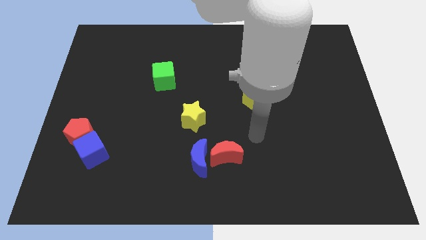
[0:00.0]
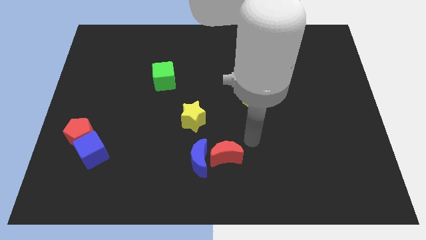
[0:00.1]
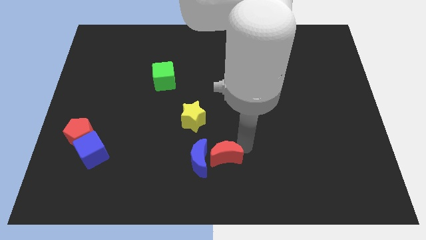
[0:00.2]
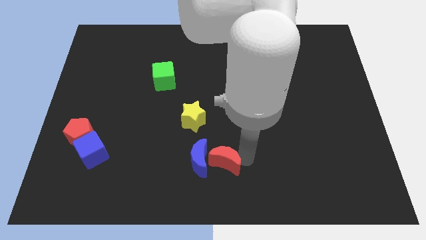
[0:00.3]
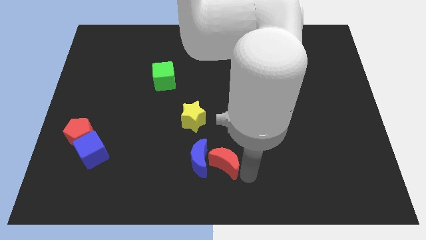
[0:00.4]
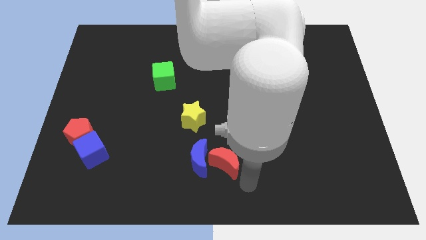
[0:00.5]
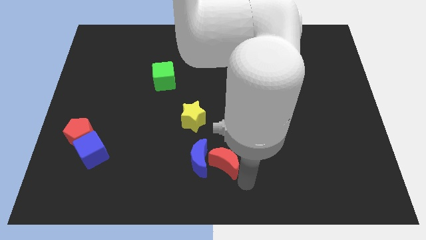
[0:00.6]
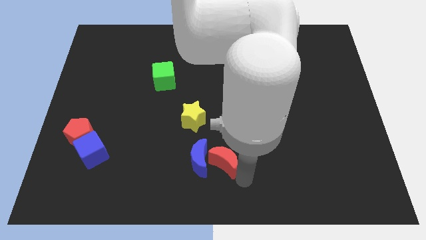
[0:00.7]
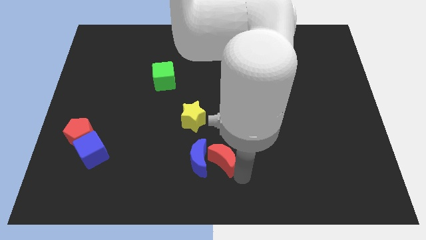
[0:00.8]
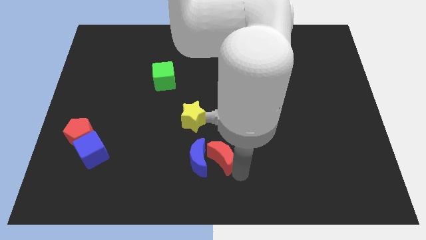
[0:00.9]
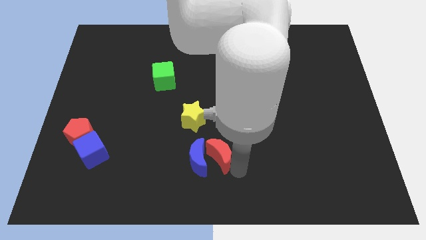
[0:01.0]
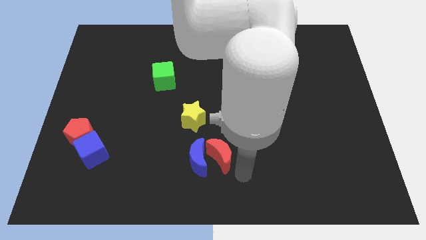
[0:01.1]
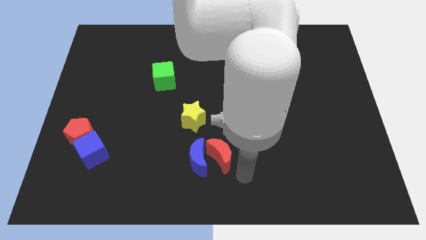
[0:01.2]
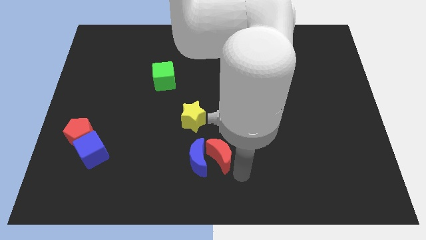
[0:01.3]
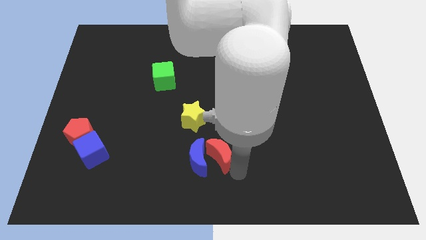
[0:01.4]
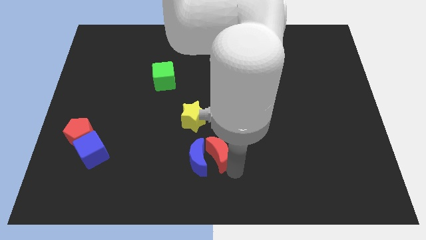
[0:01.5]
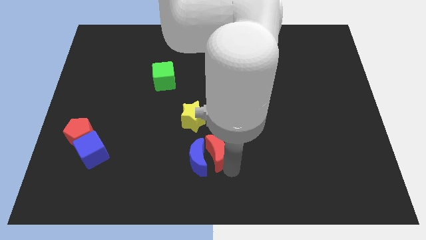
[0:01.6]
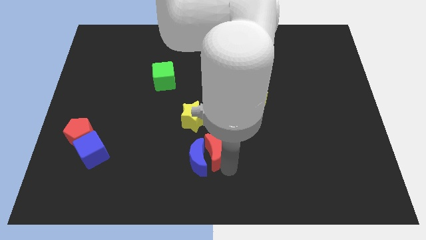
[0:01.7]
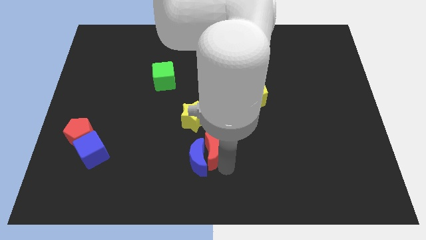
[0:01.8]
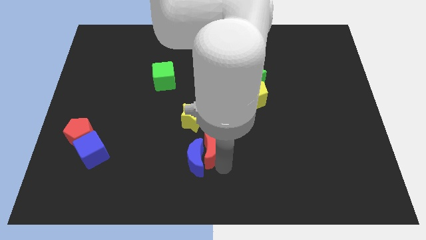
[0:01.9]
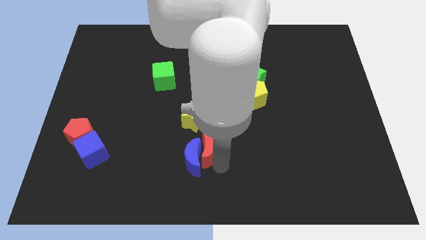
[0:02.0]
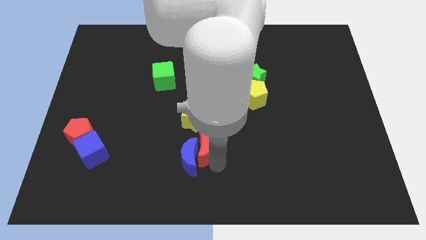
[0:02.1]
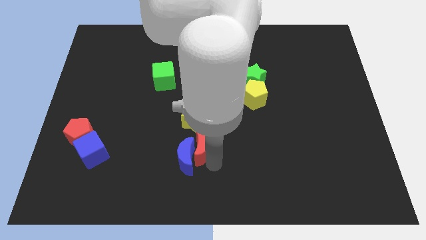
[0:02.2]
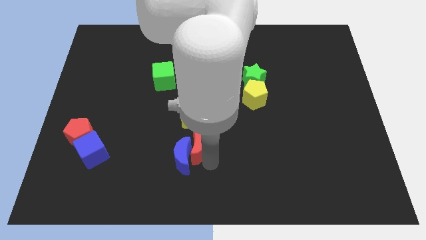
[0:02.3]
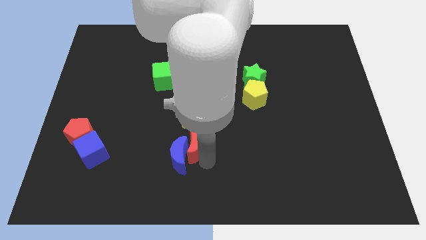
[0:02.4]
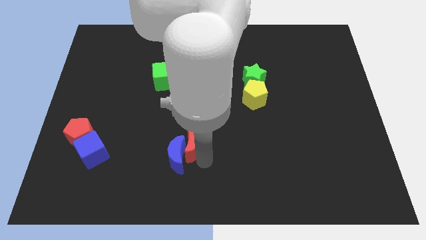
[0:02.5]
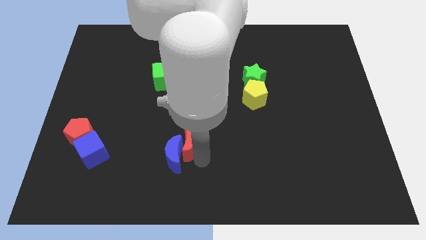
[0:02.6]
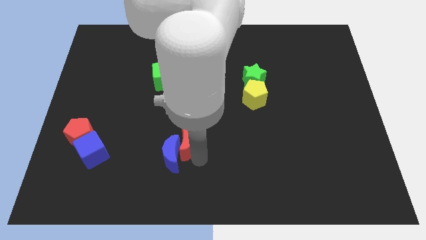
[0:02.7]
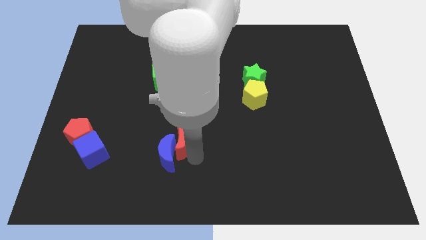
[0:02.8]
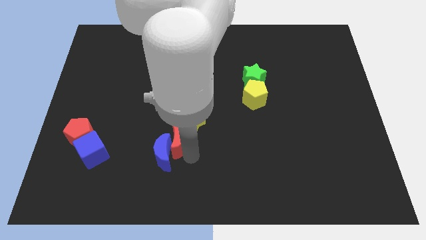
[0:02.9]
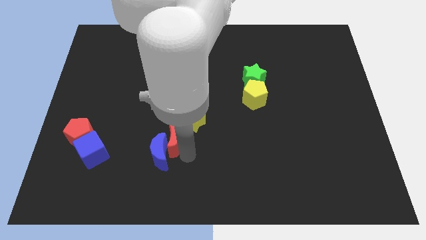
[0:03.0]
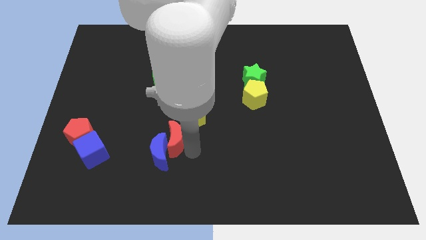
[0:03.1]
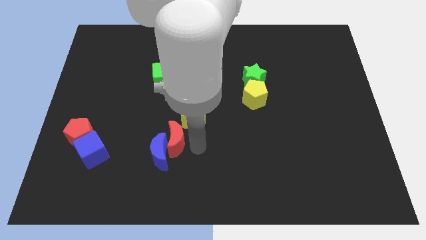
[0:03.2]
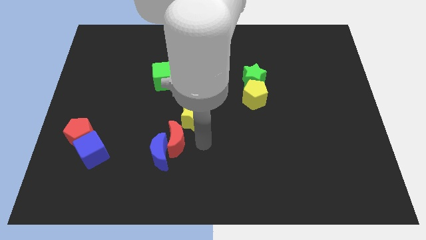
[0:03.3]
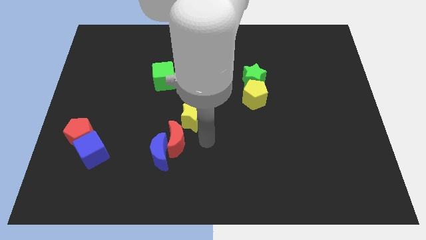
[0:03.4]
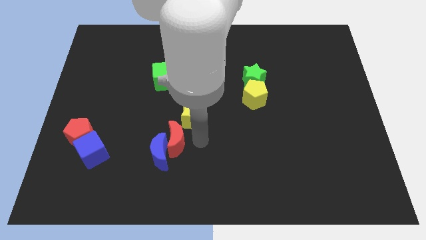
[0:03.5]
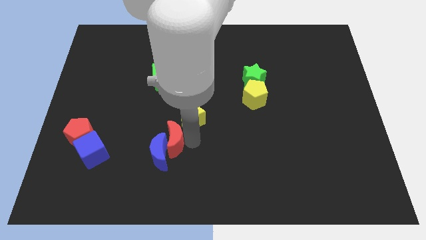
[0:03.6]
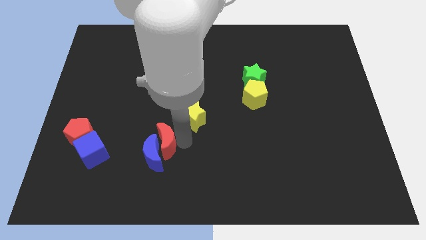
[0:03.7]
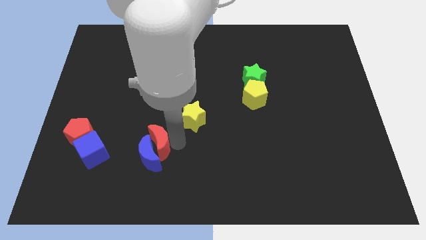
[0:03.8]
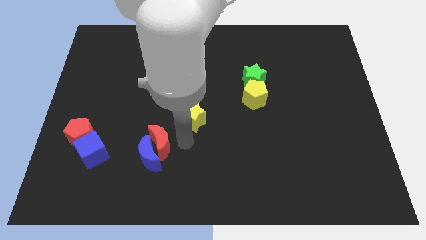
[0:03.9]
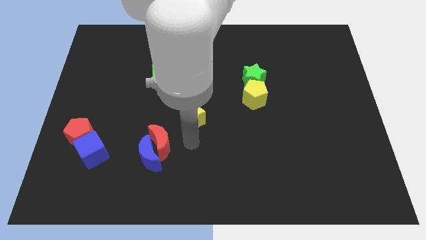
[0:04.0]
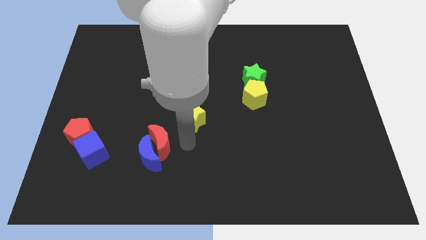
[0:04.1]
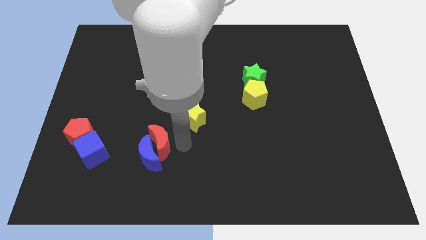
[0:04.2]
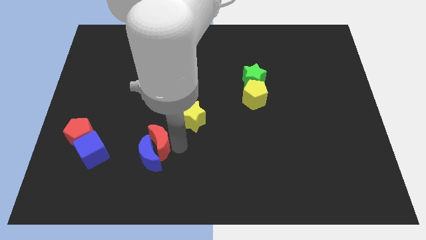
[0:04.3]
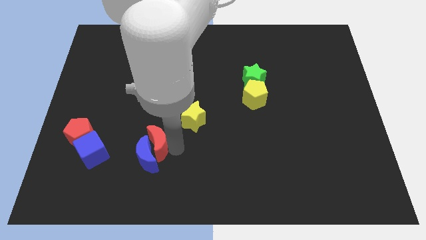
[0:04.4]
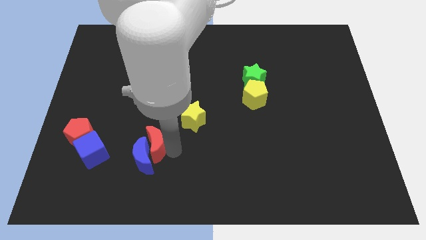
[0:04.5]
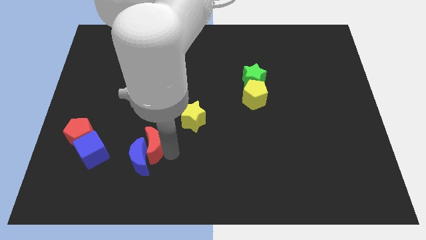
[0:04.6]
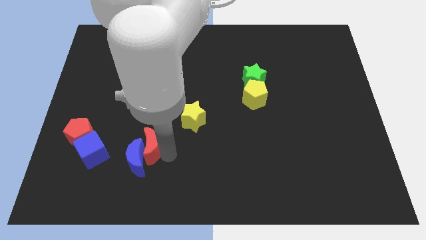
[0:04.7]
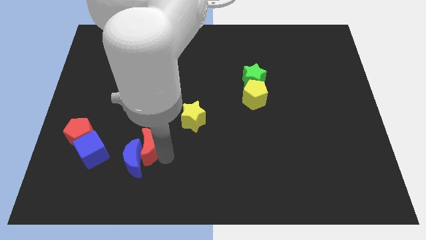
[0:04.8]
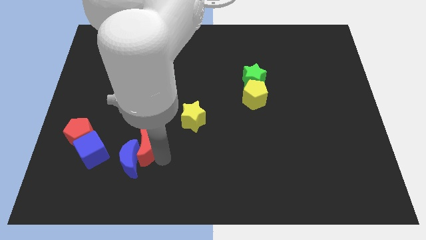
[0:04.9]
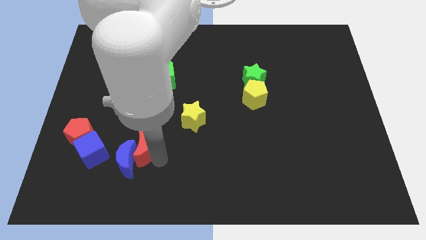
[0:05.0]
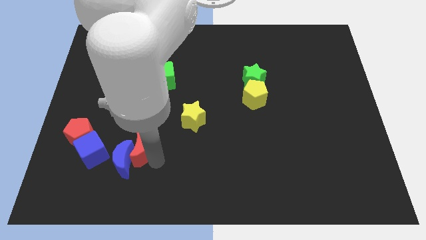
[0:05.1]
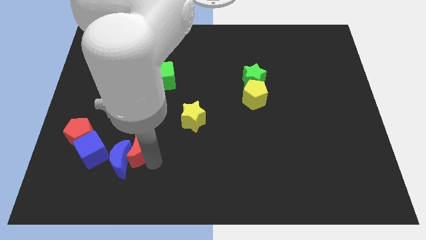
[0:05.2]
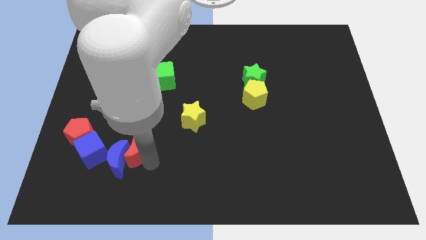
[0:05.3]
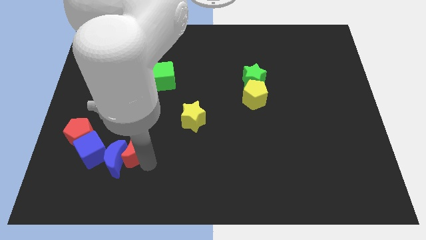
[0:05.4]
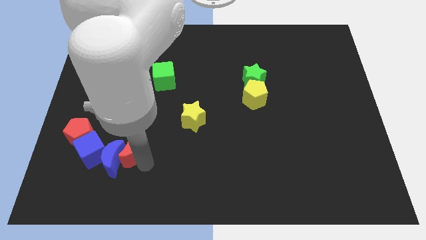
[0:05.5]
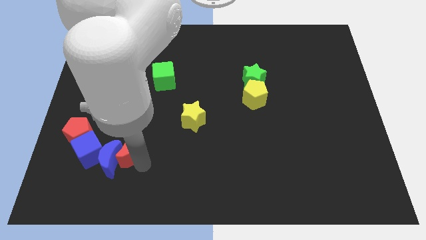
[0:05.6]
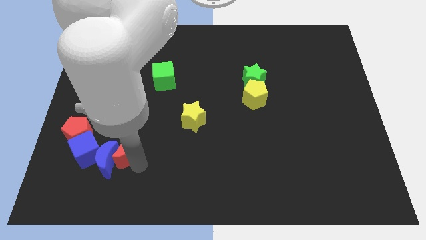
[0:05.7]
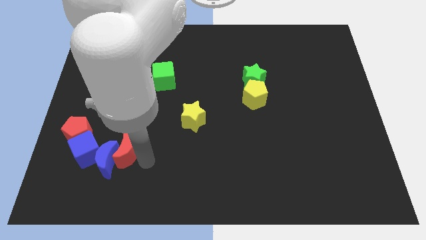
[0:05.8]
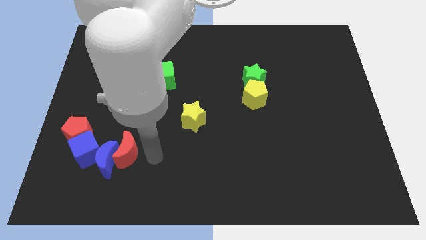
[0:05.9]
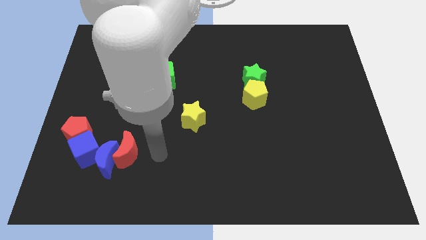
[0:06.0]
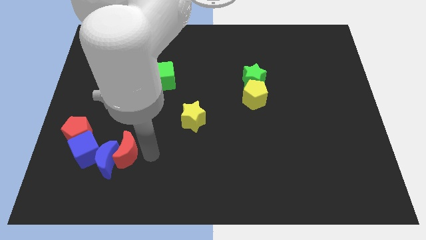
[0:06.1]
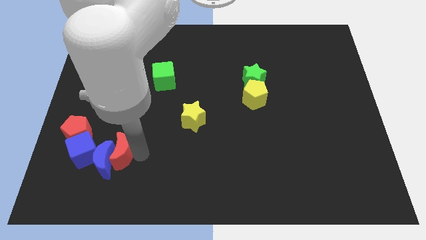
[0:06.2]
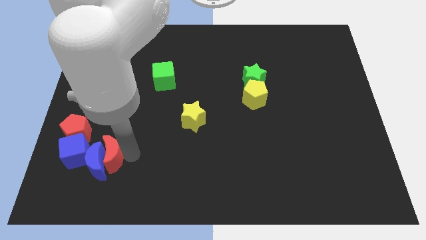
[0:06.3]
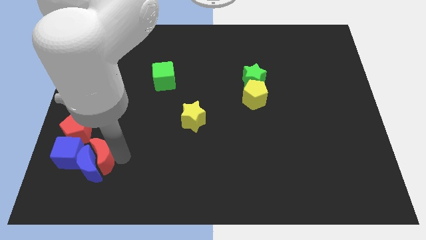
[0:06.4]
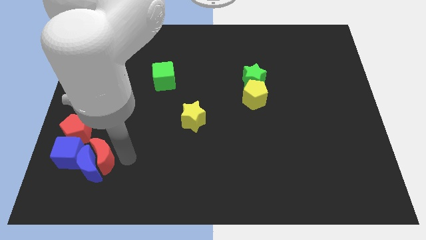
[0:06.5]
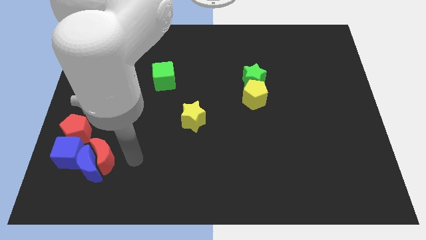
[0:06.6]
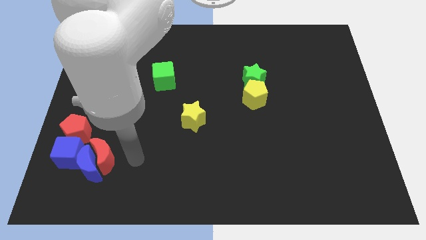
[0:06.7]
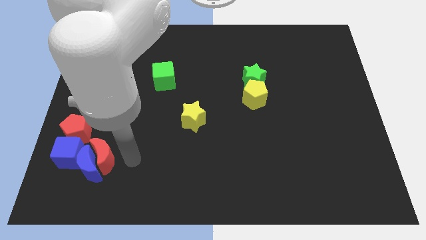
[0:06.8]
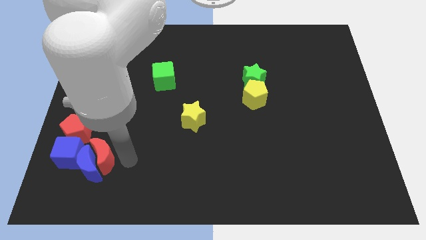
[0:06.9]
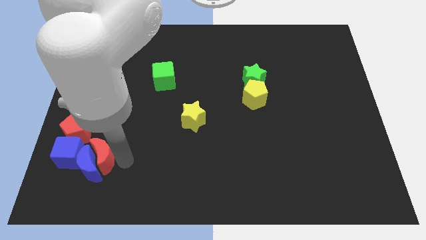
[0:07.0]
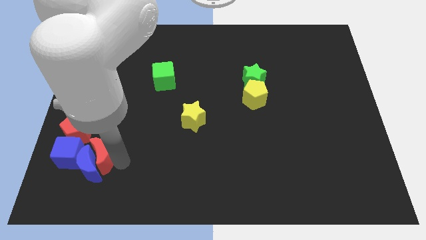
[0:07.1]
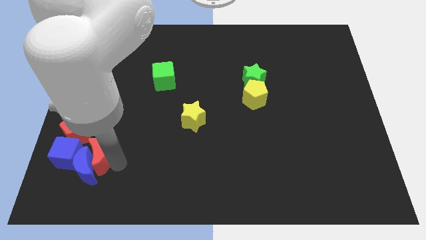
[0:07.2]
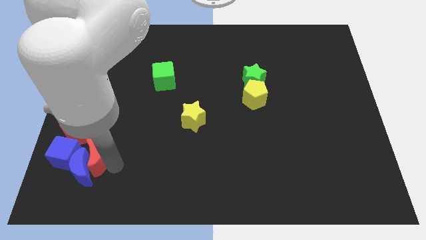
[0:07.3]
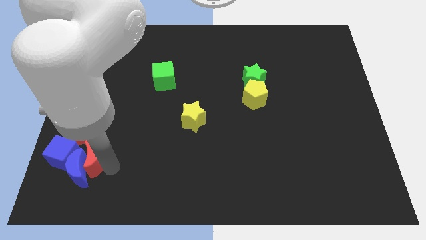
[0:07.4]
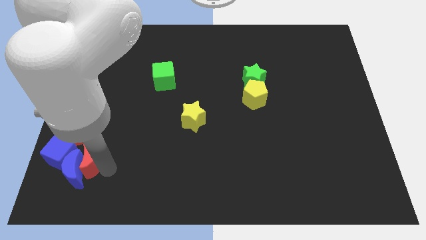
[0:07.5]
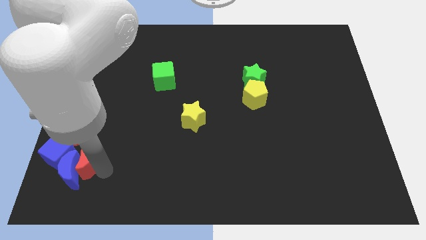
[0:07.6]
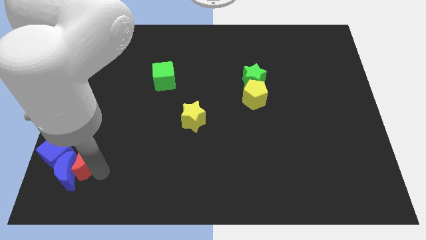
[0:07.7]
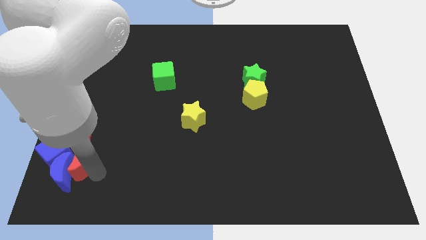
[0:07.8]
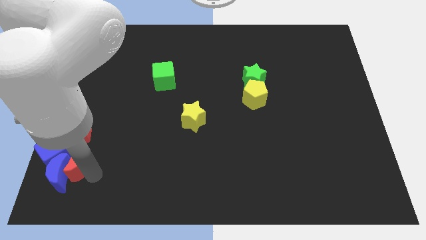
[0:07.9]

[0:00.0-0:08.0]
move the red moon towards the blue cube
